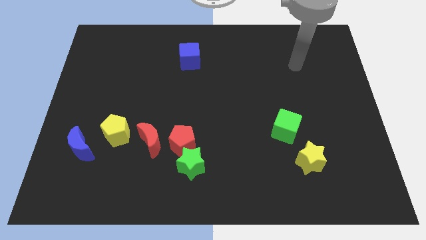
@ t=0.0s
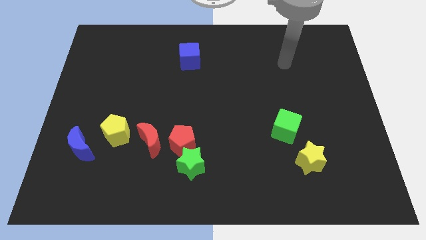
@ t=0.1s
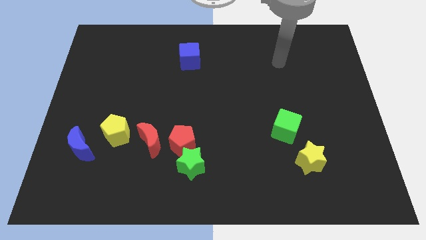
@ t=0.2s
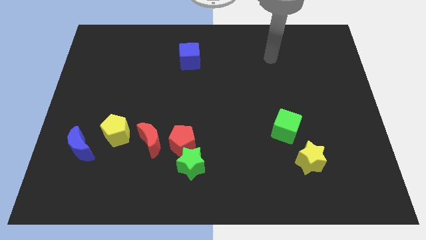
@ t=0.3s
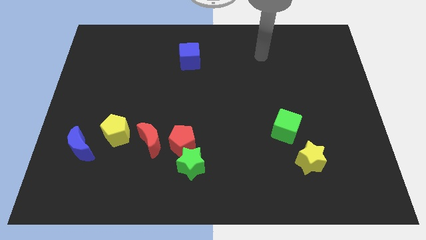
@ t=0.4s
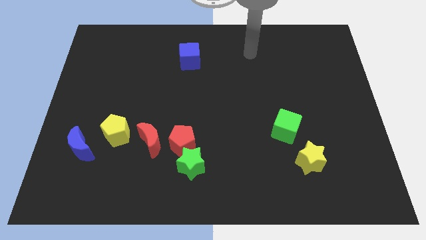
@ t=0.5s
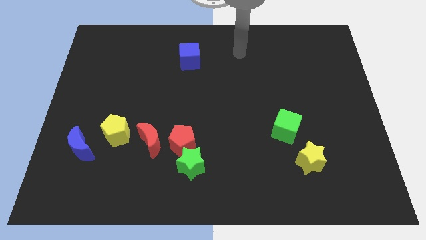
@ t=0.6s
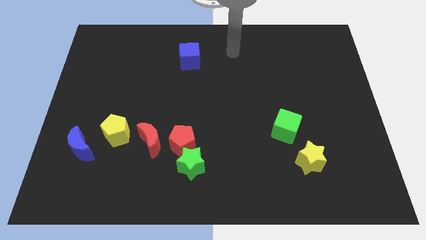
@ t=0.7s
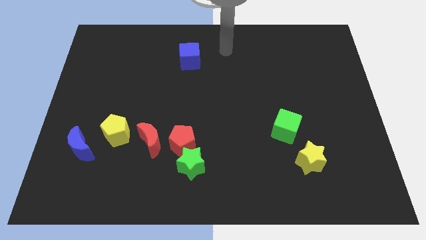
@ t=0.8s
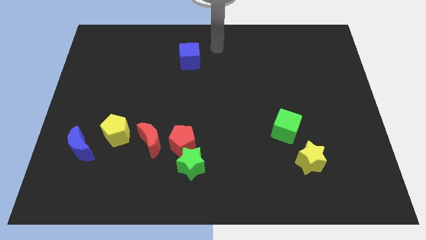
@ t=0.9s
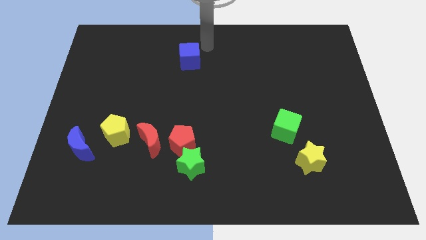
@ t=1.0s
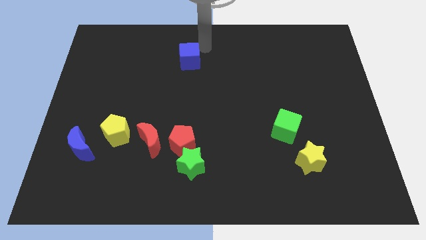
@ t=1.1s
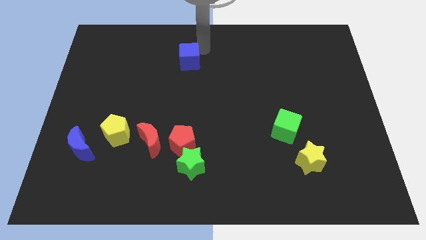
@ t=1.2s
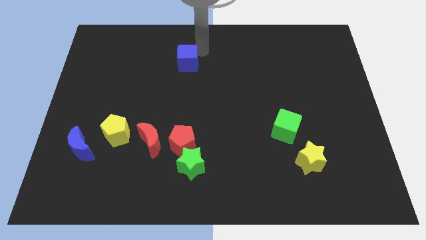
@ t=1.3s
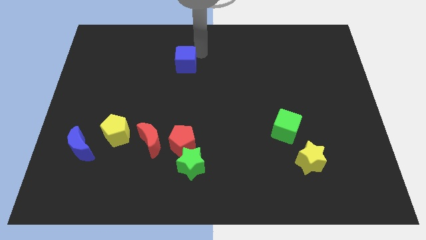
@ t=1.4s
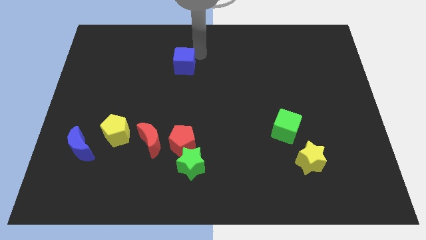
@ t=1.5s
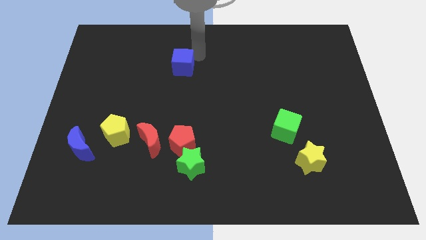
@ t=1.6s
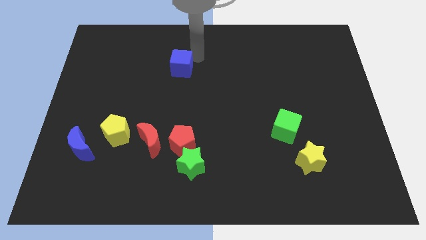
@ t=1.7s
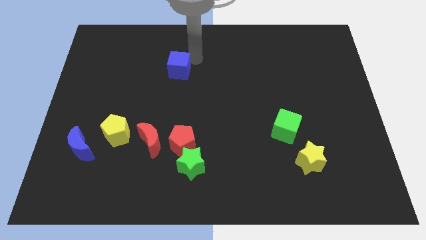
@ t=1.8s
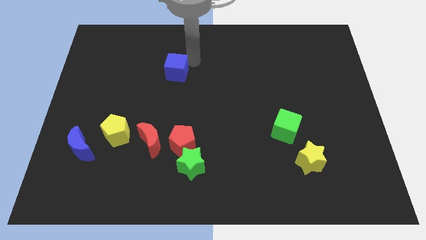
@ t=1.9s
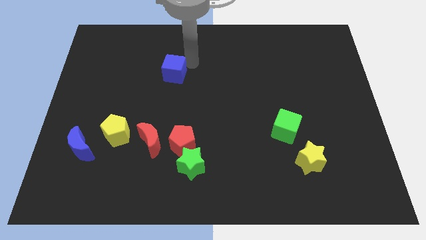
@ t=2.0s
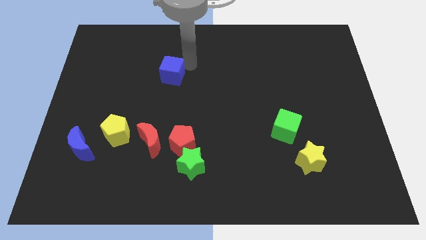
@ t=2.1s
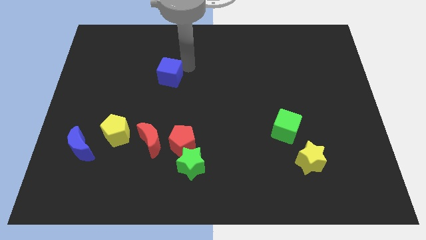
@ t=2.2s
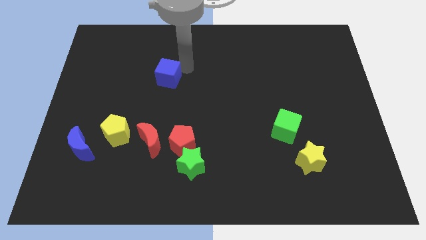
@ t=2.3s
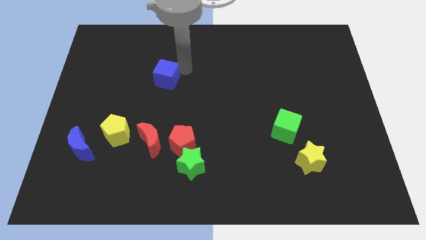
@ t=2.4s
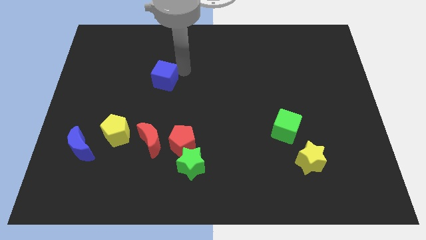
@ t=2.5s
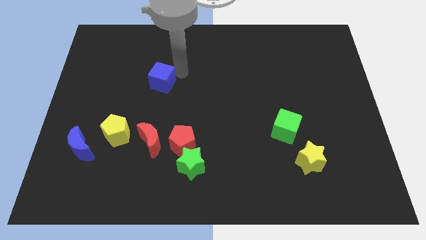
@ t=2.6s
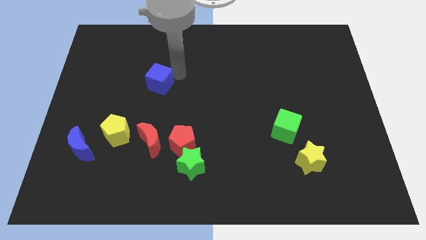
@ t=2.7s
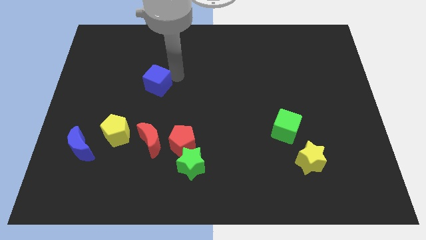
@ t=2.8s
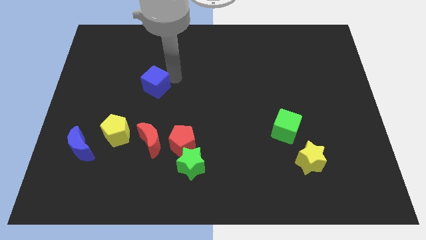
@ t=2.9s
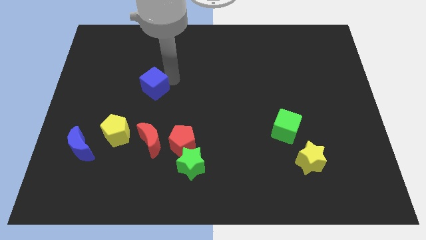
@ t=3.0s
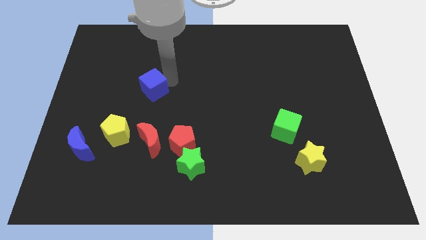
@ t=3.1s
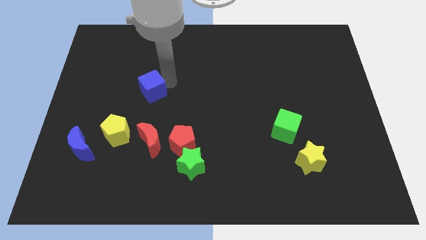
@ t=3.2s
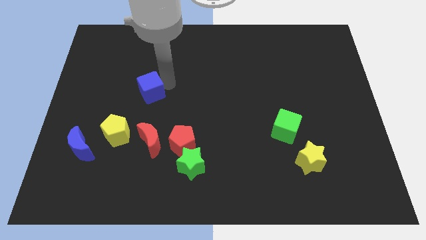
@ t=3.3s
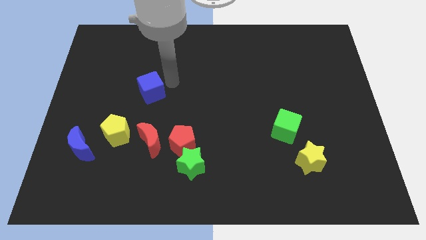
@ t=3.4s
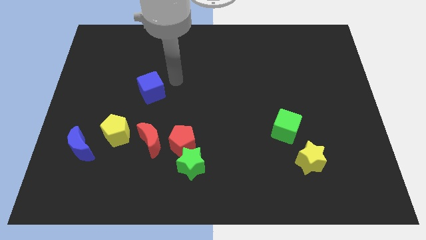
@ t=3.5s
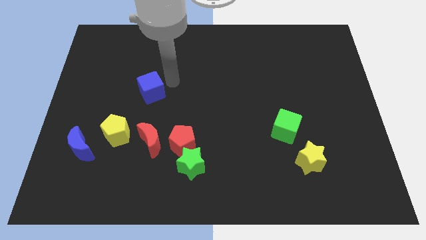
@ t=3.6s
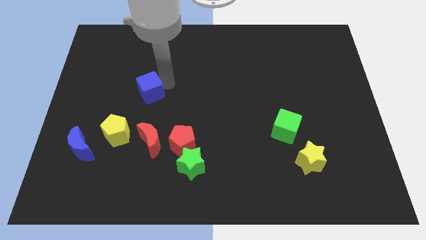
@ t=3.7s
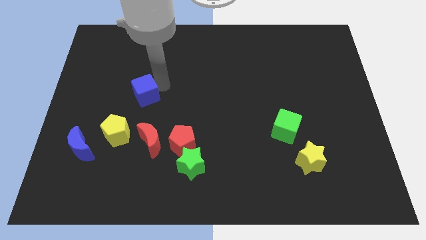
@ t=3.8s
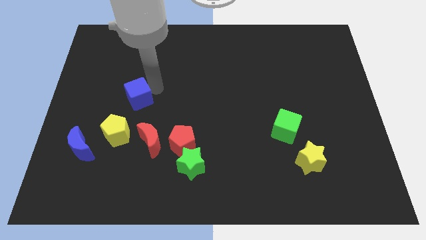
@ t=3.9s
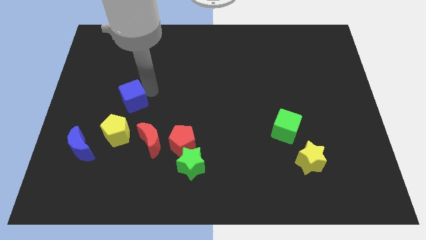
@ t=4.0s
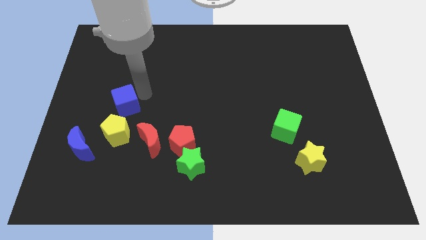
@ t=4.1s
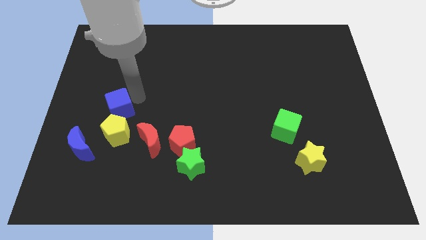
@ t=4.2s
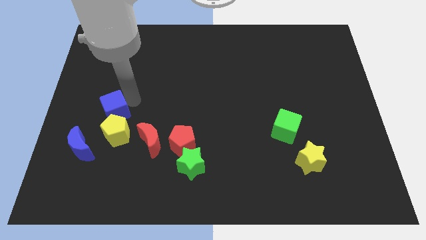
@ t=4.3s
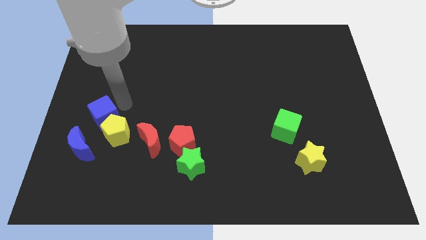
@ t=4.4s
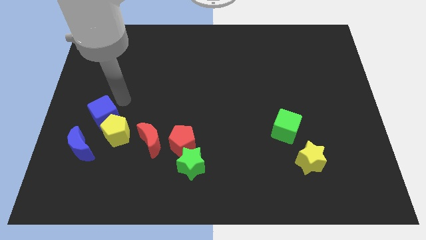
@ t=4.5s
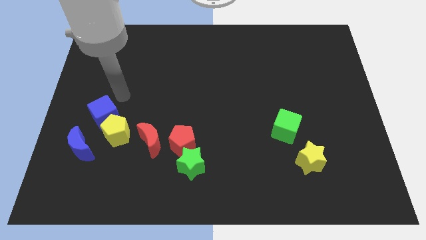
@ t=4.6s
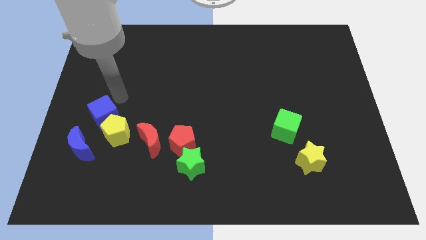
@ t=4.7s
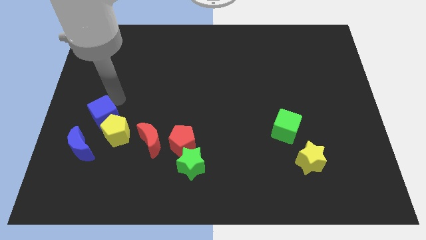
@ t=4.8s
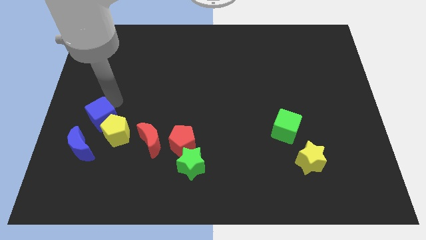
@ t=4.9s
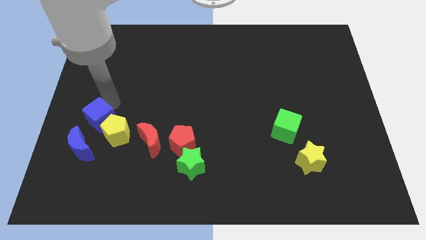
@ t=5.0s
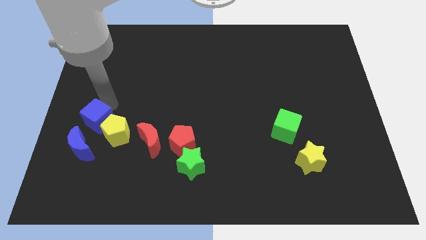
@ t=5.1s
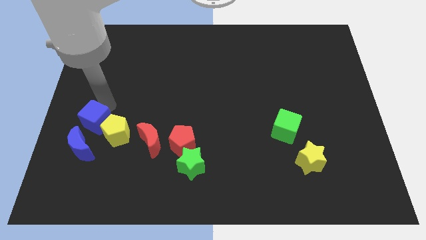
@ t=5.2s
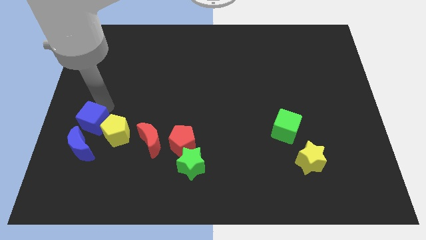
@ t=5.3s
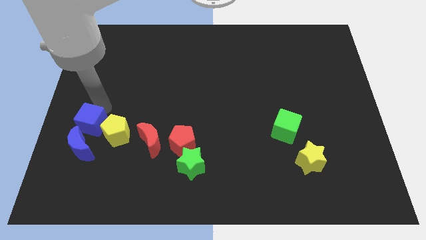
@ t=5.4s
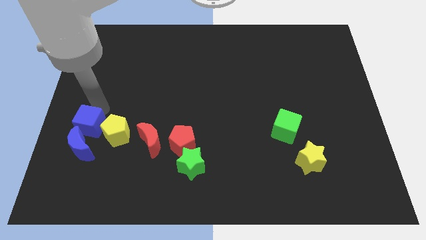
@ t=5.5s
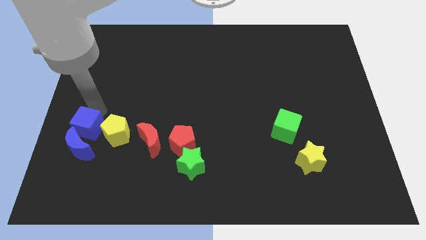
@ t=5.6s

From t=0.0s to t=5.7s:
put the blue cube to the blue moon

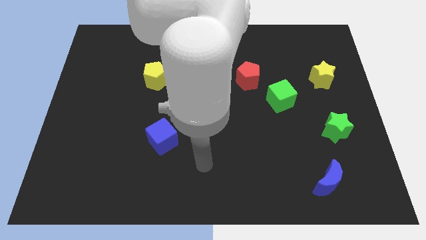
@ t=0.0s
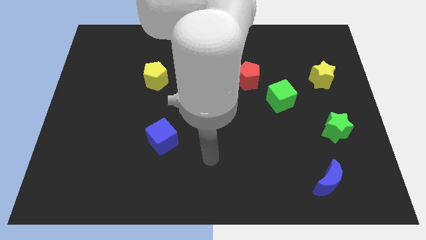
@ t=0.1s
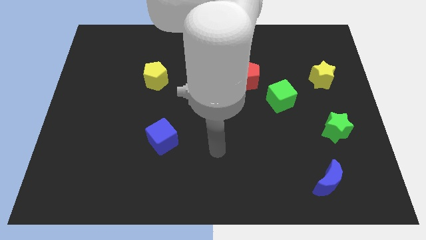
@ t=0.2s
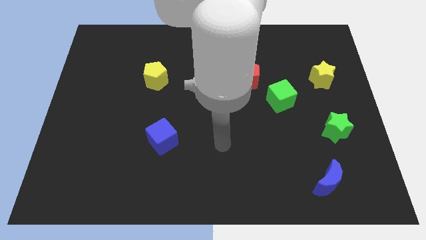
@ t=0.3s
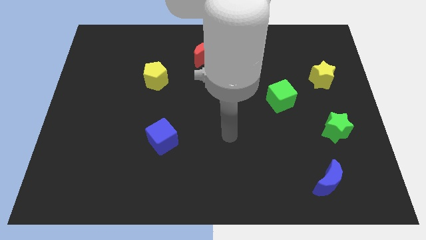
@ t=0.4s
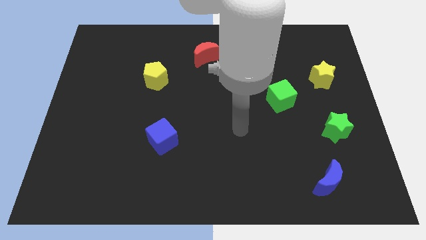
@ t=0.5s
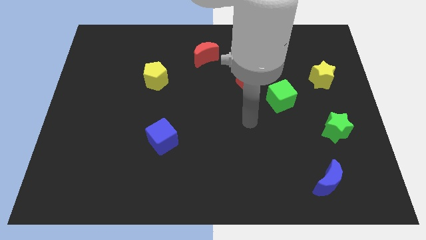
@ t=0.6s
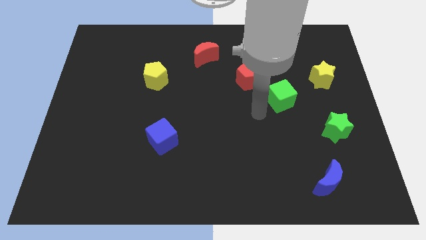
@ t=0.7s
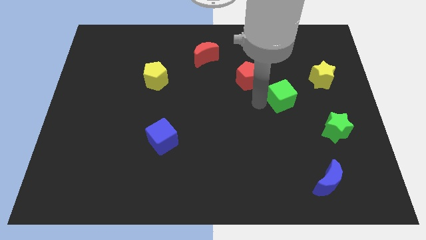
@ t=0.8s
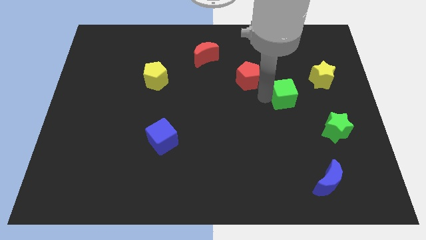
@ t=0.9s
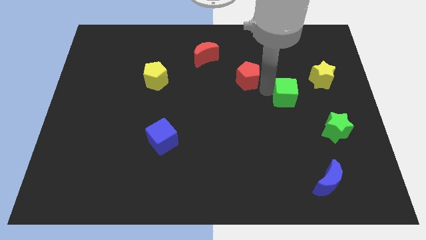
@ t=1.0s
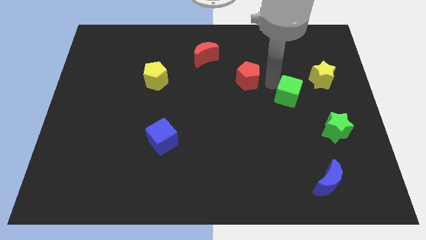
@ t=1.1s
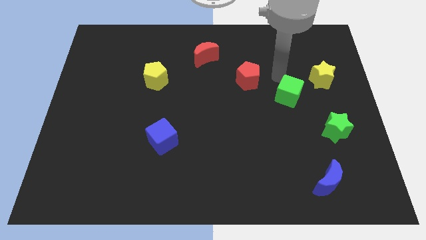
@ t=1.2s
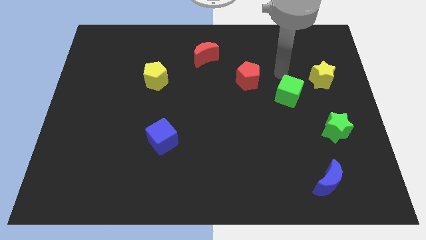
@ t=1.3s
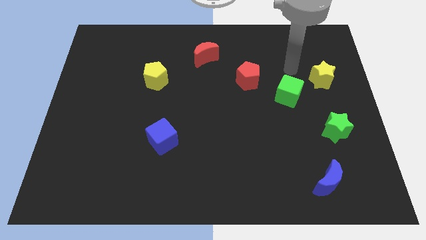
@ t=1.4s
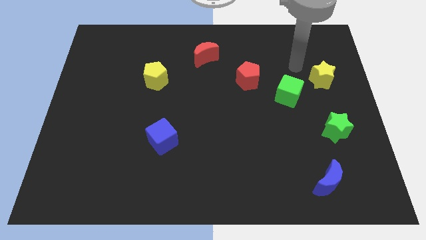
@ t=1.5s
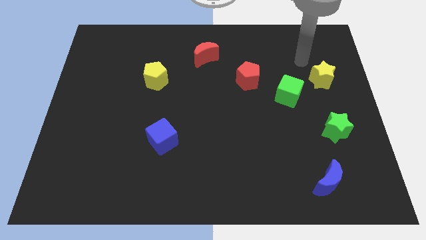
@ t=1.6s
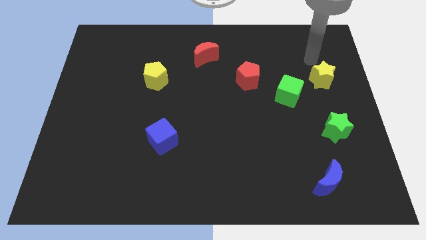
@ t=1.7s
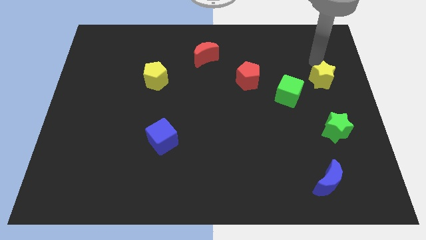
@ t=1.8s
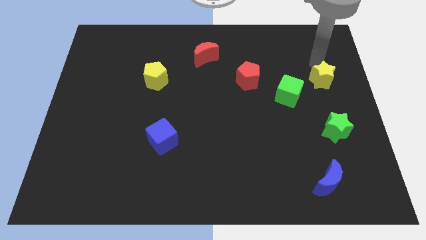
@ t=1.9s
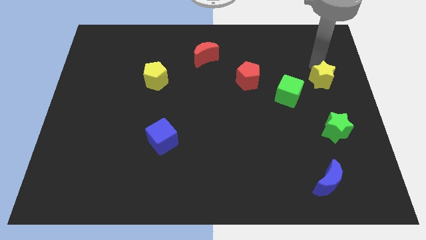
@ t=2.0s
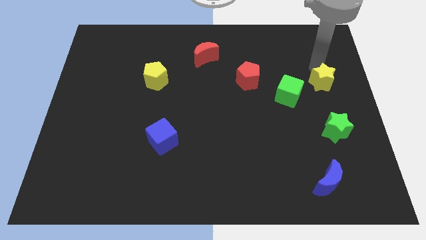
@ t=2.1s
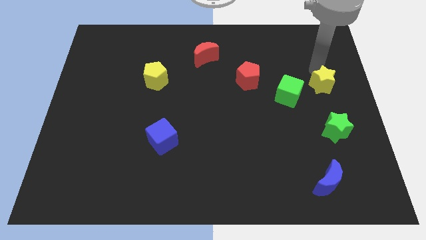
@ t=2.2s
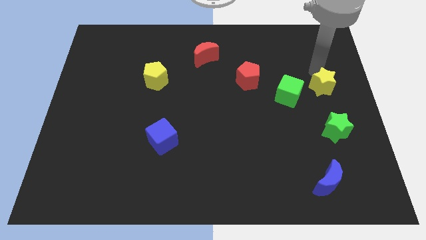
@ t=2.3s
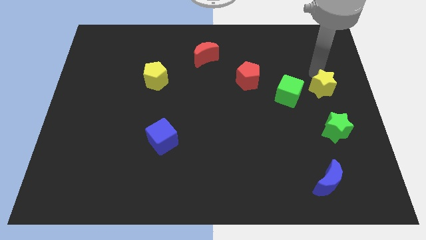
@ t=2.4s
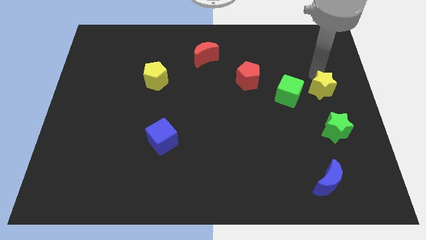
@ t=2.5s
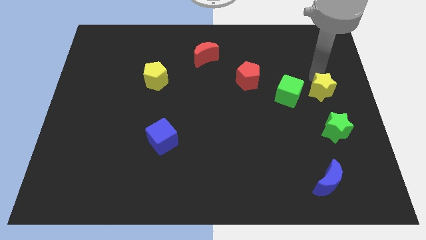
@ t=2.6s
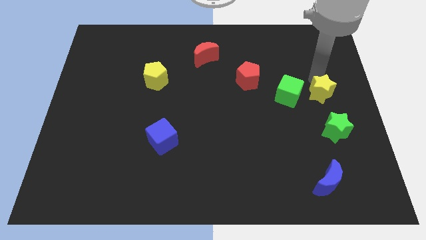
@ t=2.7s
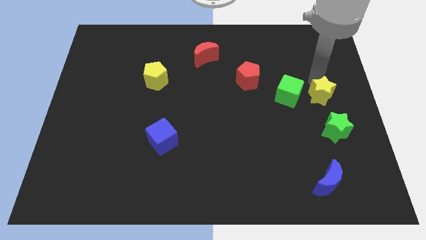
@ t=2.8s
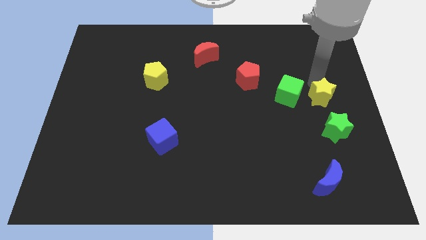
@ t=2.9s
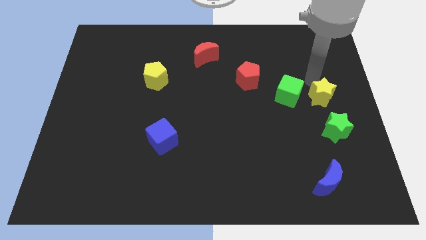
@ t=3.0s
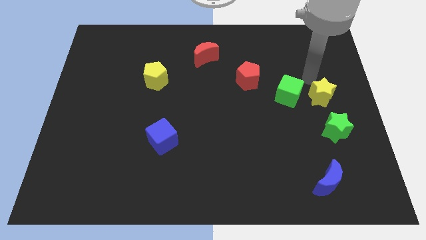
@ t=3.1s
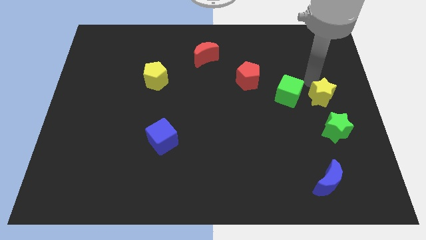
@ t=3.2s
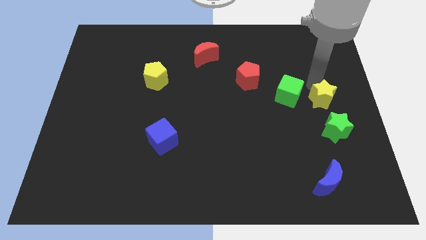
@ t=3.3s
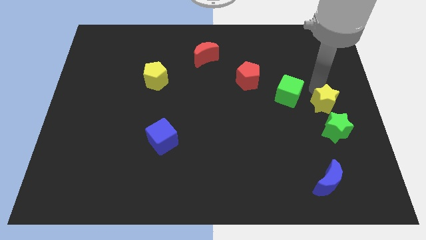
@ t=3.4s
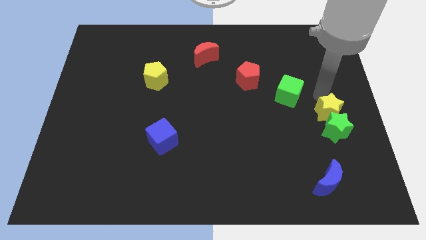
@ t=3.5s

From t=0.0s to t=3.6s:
slide the yellow star towards the green star
